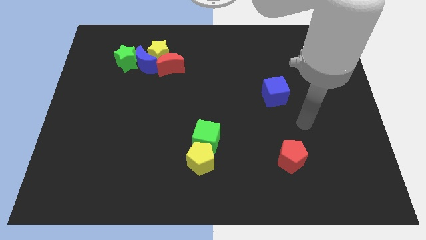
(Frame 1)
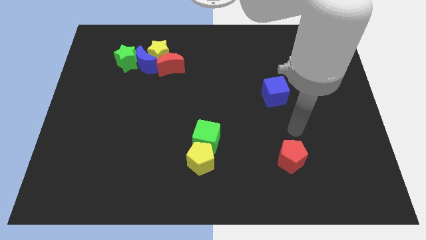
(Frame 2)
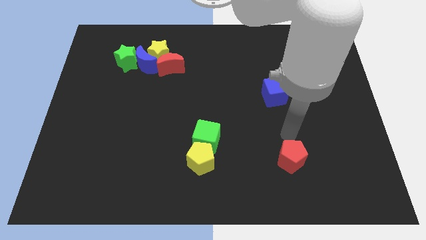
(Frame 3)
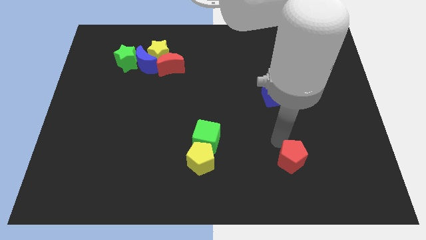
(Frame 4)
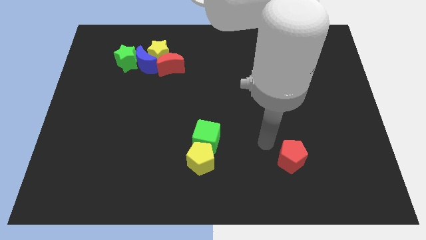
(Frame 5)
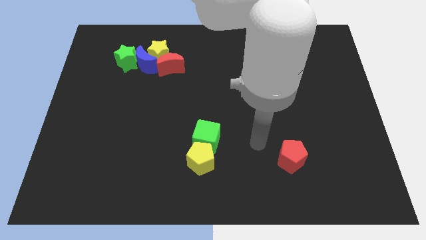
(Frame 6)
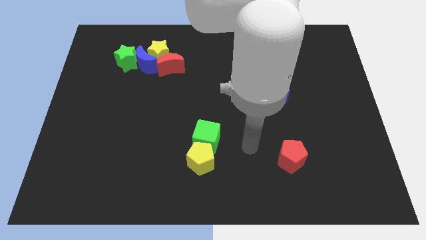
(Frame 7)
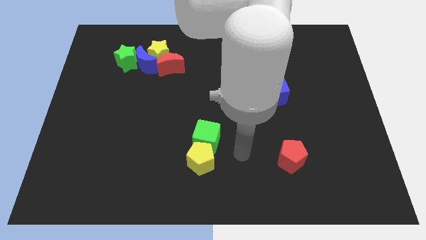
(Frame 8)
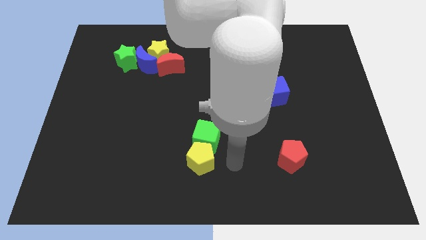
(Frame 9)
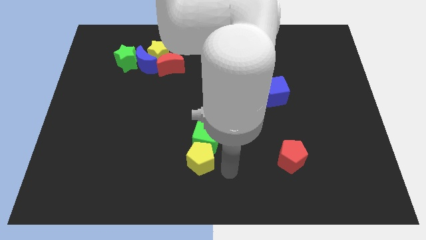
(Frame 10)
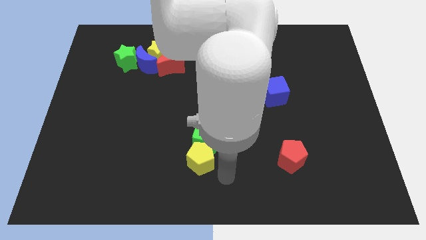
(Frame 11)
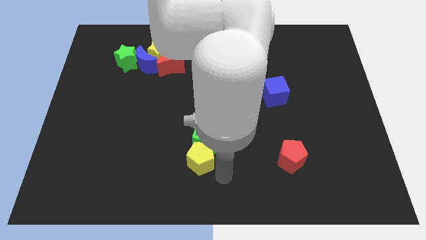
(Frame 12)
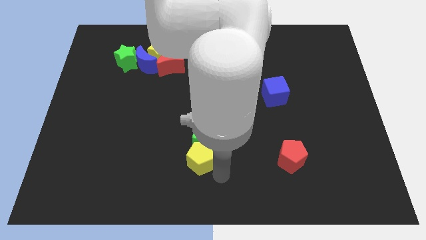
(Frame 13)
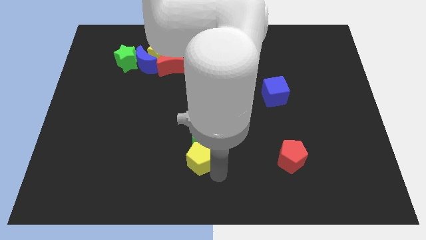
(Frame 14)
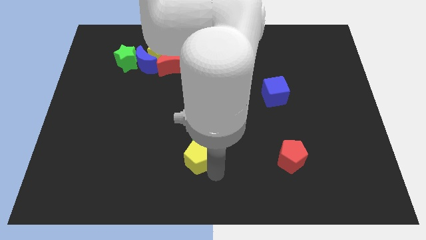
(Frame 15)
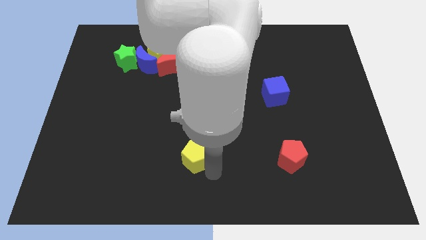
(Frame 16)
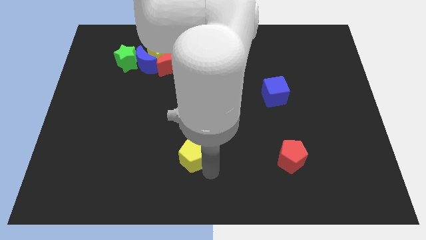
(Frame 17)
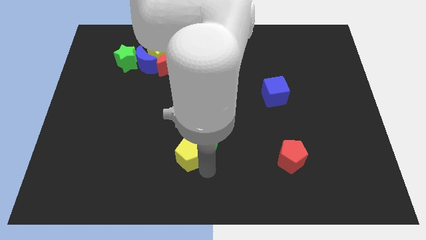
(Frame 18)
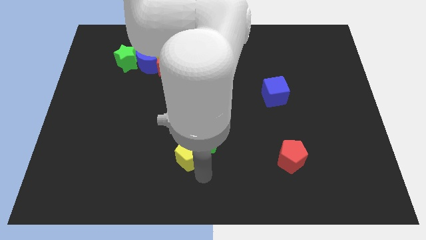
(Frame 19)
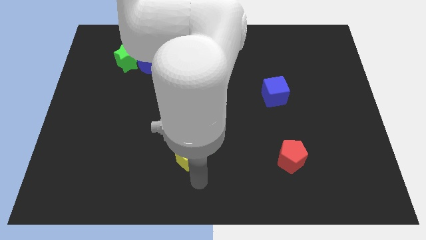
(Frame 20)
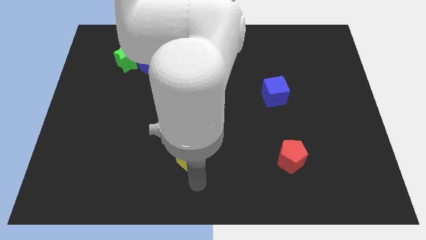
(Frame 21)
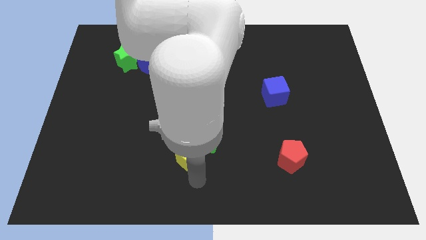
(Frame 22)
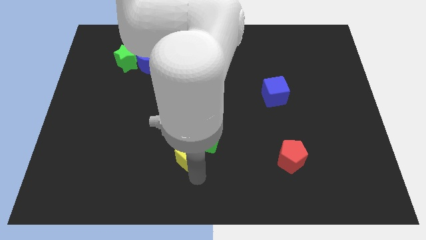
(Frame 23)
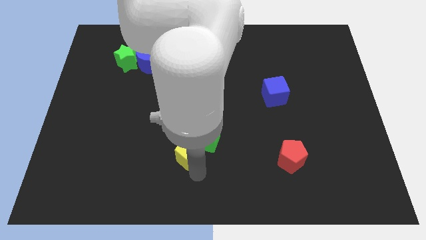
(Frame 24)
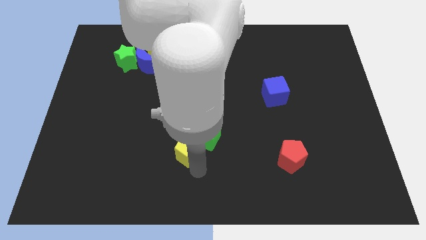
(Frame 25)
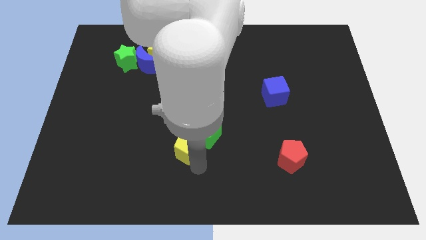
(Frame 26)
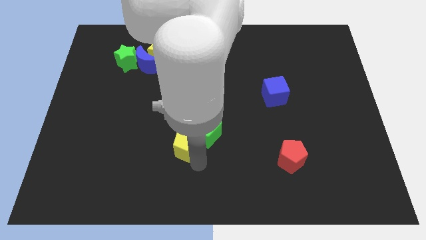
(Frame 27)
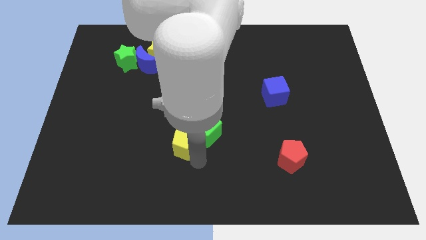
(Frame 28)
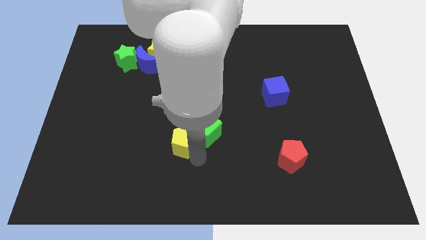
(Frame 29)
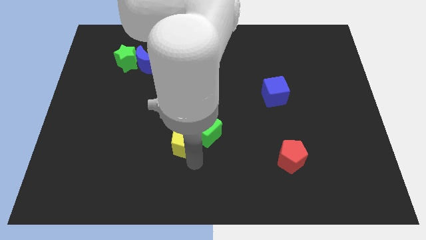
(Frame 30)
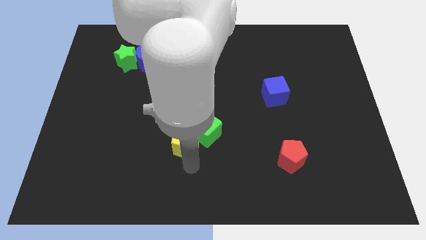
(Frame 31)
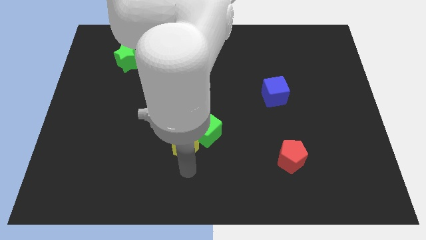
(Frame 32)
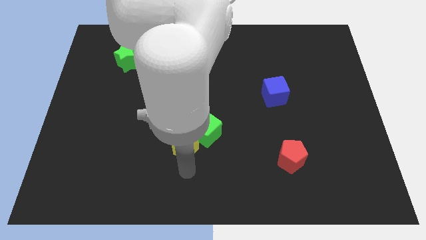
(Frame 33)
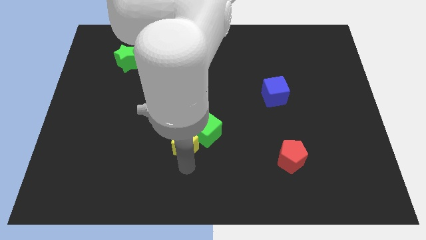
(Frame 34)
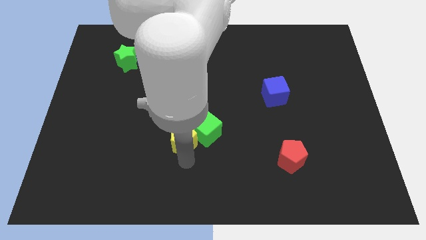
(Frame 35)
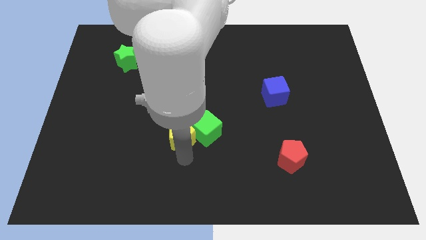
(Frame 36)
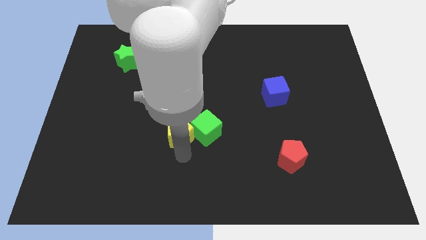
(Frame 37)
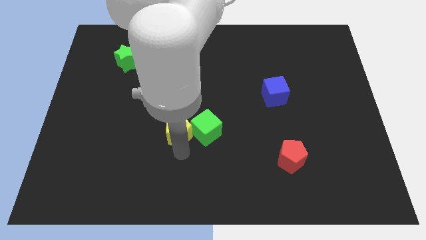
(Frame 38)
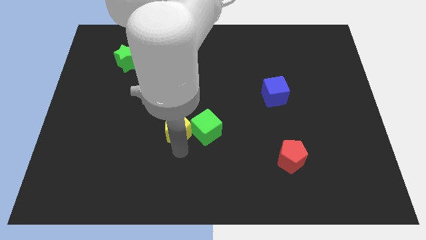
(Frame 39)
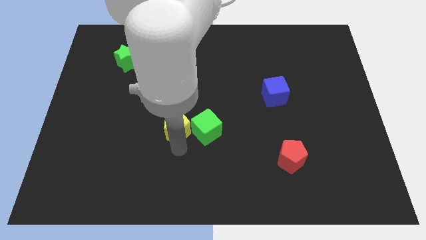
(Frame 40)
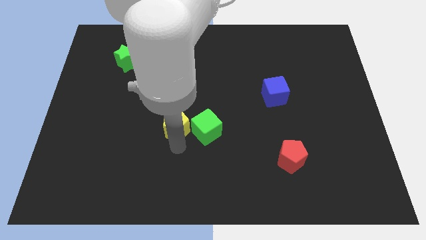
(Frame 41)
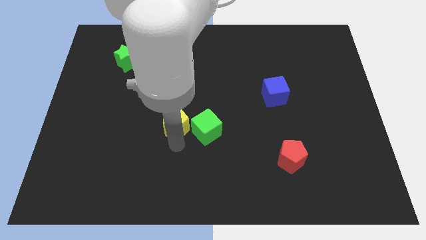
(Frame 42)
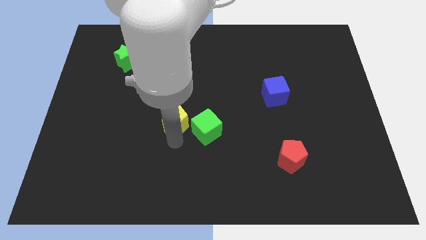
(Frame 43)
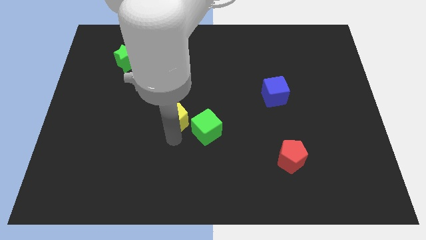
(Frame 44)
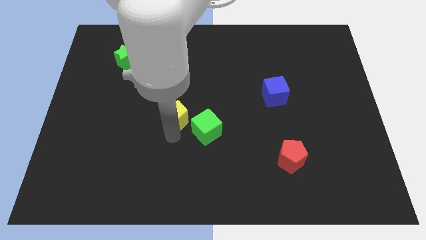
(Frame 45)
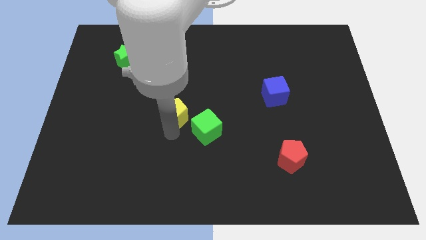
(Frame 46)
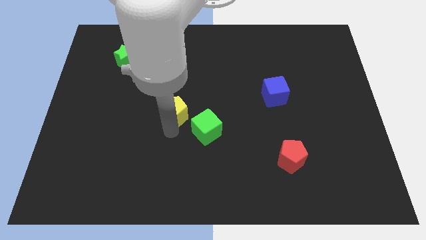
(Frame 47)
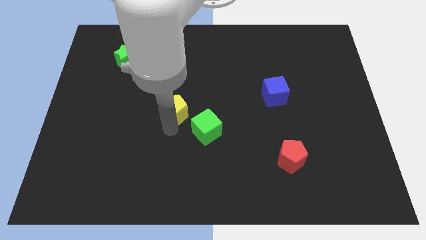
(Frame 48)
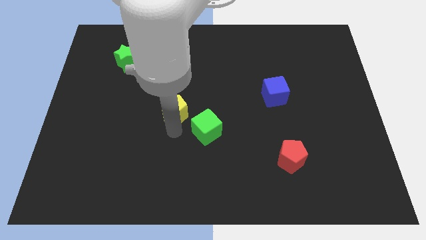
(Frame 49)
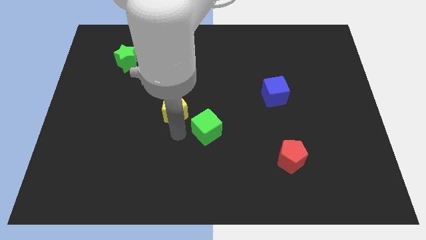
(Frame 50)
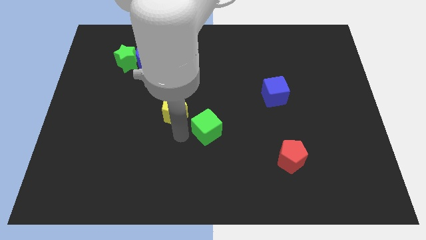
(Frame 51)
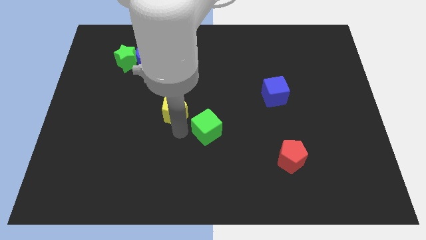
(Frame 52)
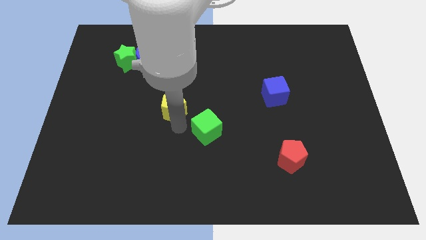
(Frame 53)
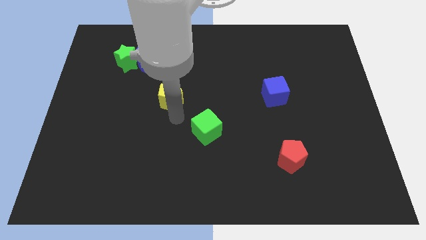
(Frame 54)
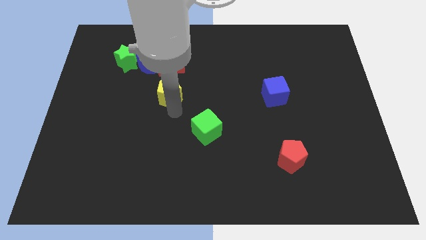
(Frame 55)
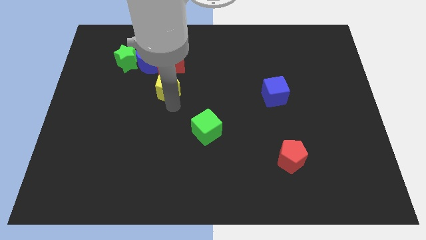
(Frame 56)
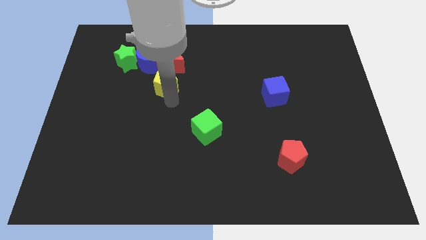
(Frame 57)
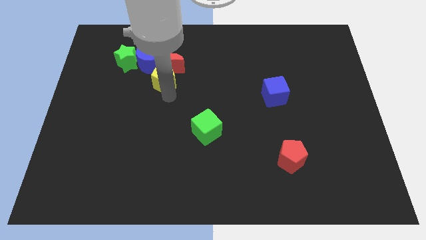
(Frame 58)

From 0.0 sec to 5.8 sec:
slide the yellow pentagon next to the red moon
